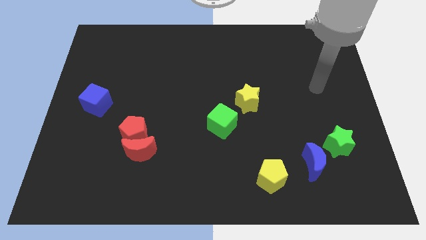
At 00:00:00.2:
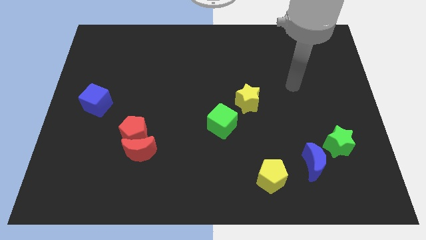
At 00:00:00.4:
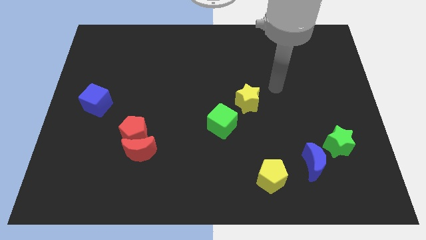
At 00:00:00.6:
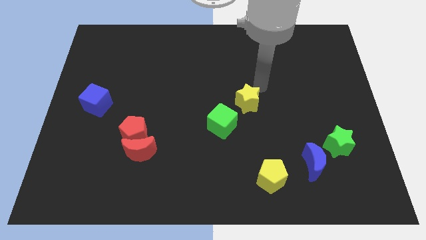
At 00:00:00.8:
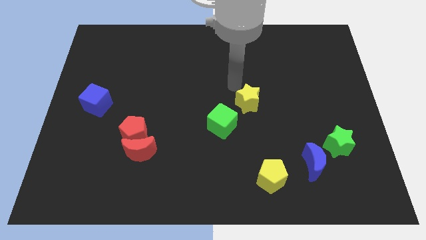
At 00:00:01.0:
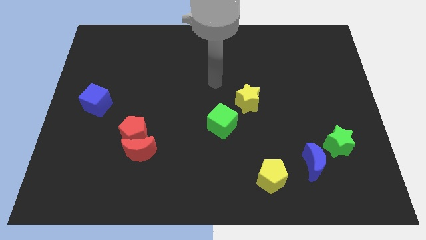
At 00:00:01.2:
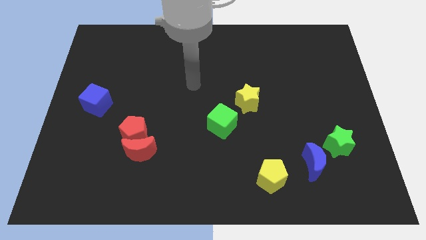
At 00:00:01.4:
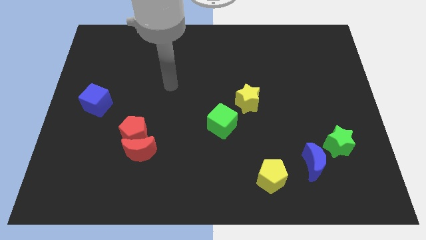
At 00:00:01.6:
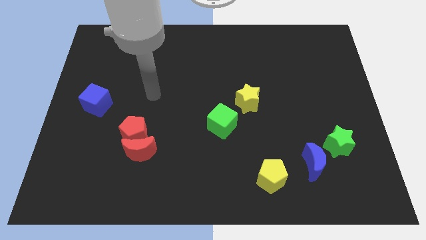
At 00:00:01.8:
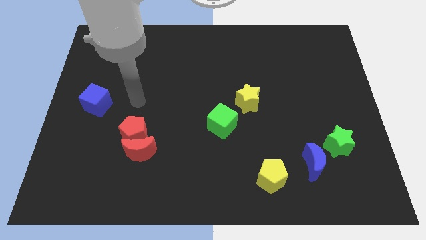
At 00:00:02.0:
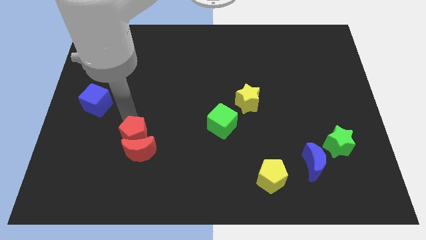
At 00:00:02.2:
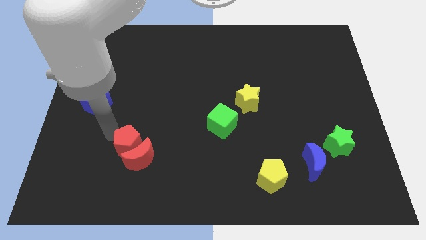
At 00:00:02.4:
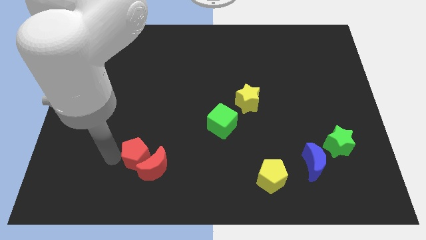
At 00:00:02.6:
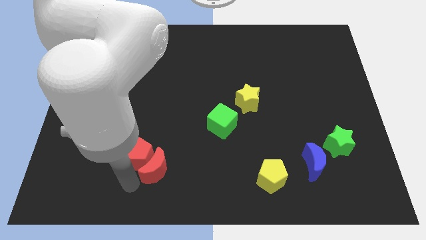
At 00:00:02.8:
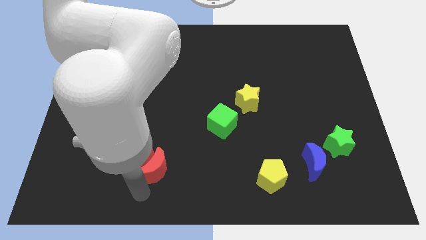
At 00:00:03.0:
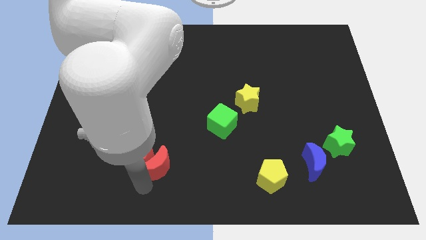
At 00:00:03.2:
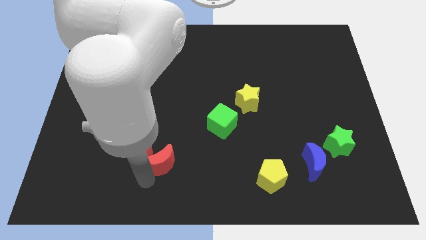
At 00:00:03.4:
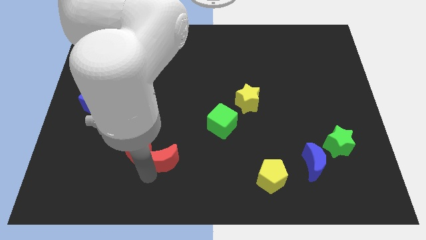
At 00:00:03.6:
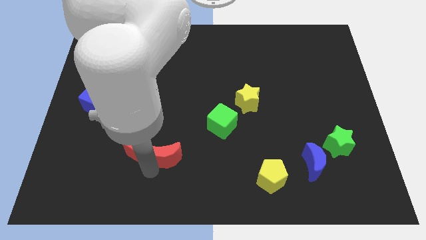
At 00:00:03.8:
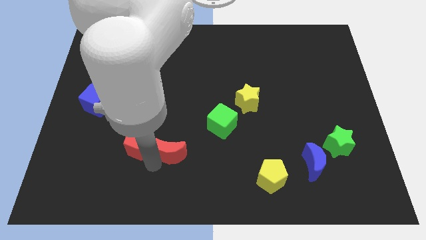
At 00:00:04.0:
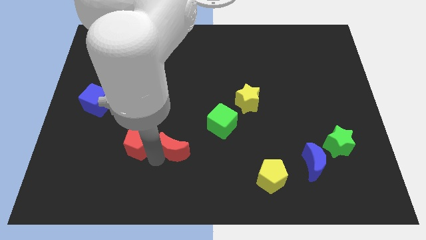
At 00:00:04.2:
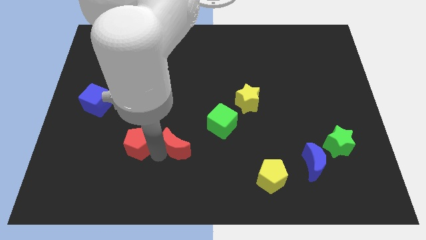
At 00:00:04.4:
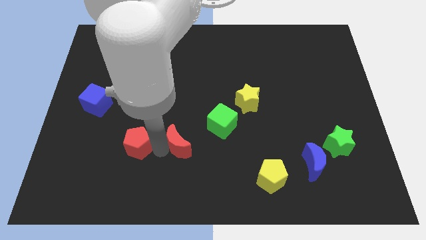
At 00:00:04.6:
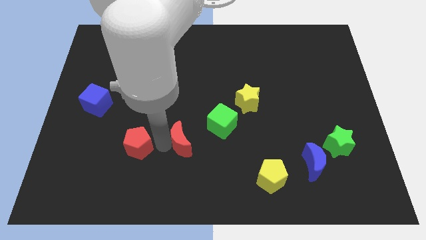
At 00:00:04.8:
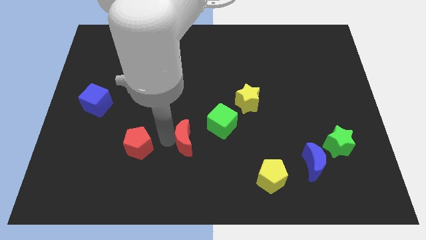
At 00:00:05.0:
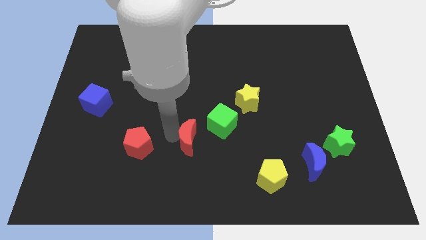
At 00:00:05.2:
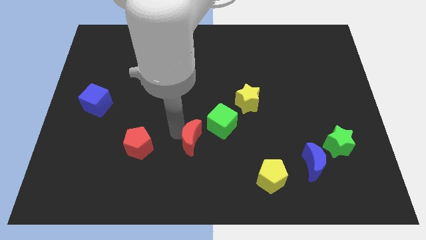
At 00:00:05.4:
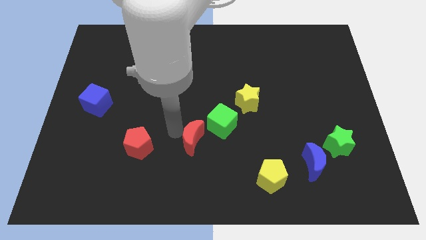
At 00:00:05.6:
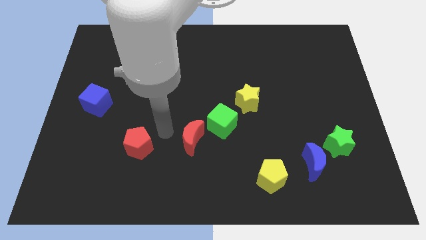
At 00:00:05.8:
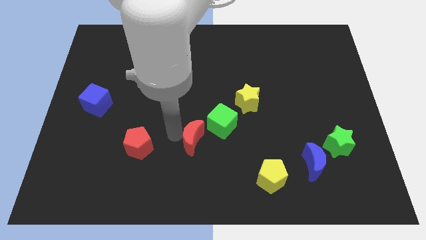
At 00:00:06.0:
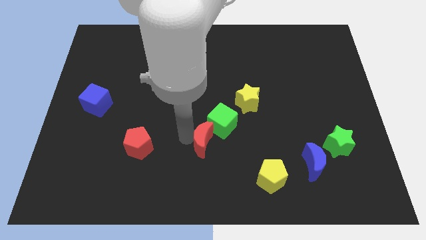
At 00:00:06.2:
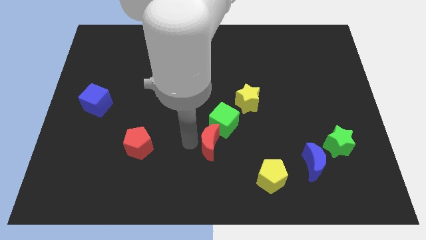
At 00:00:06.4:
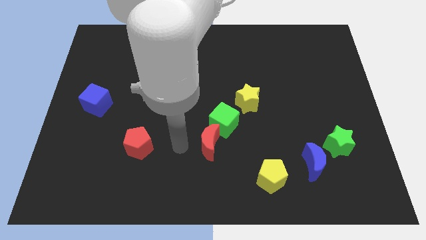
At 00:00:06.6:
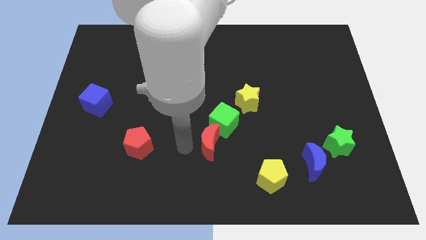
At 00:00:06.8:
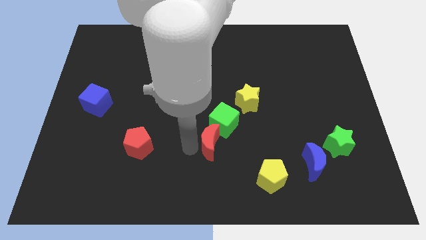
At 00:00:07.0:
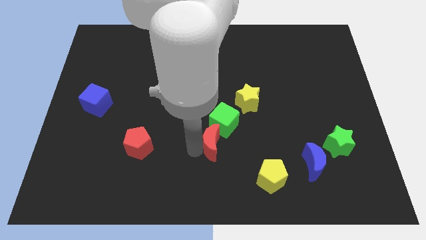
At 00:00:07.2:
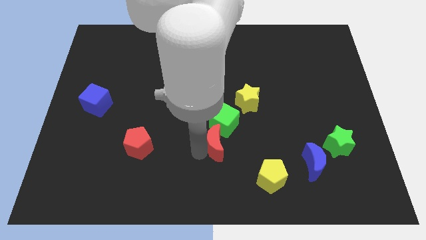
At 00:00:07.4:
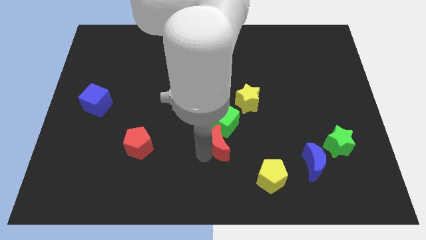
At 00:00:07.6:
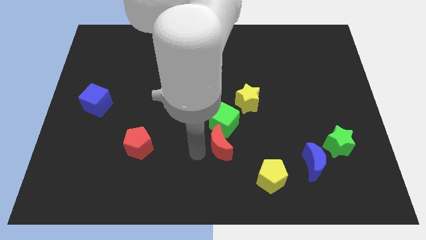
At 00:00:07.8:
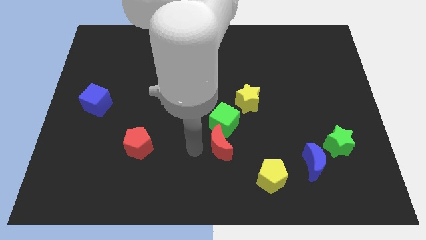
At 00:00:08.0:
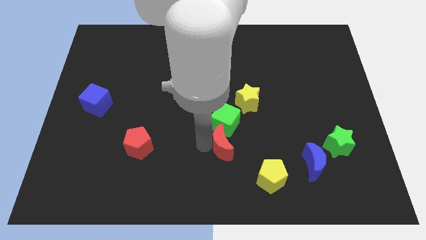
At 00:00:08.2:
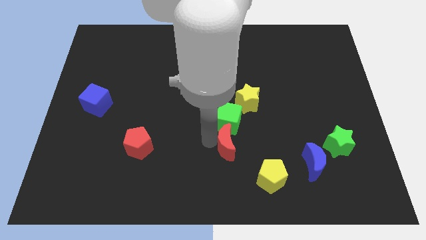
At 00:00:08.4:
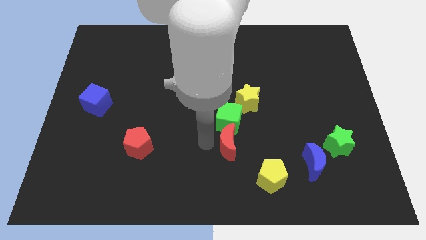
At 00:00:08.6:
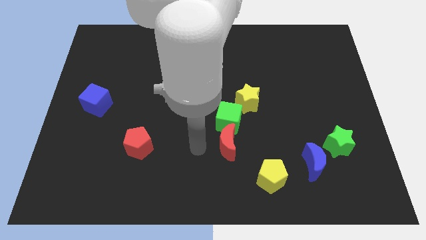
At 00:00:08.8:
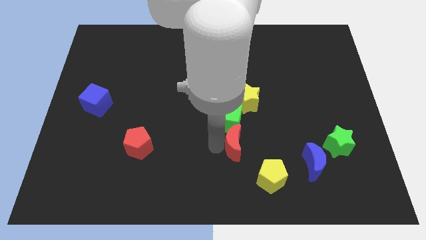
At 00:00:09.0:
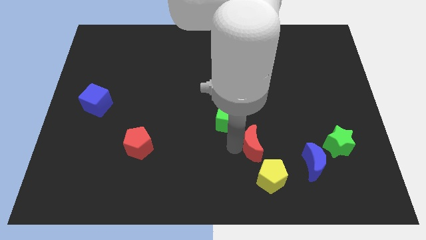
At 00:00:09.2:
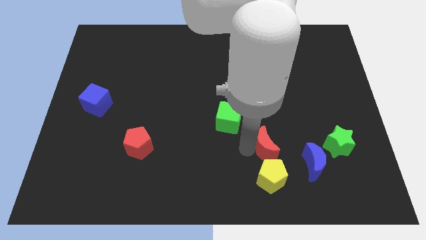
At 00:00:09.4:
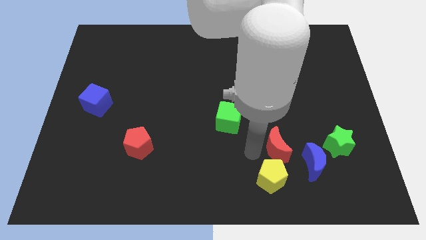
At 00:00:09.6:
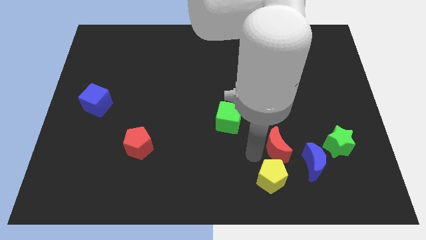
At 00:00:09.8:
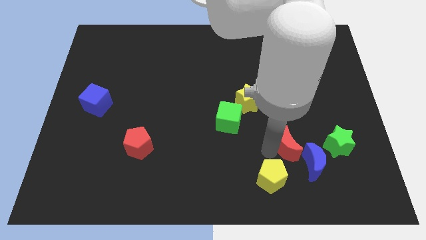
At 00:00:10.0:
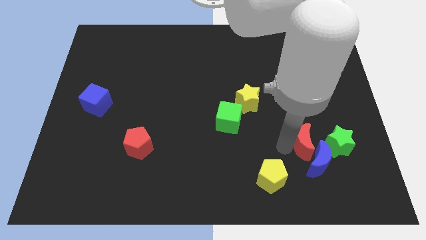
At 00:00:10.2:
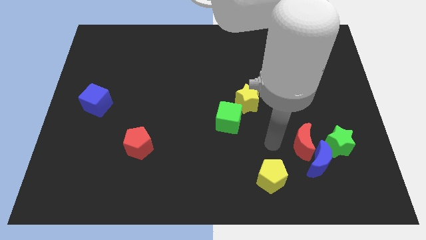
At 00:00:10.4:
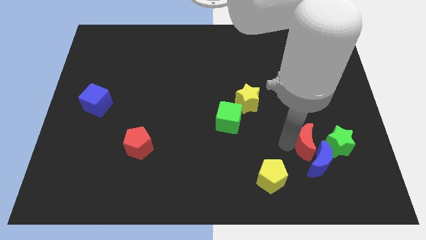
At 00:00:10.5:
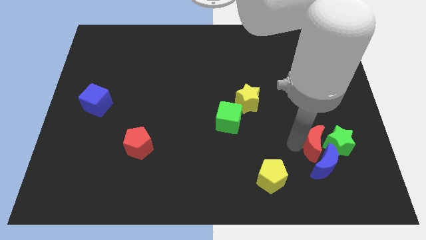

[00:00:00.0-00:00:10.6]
put the red moon next to the green star

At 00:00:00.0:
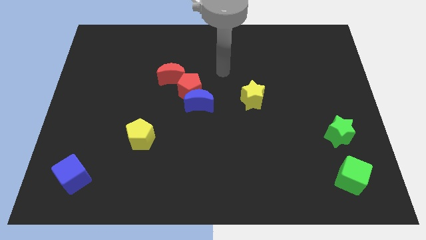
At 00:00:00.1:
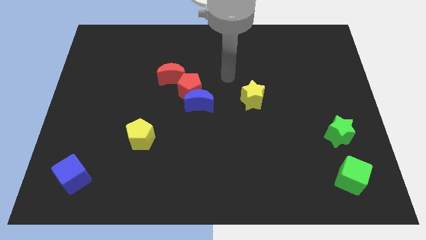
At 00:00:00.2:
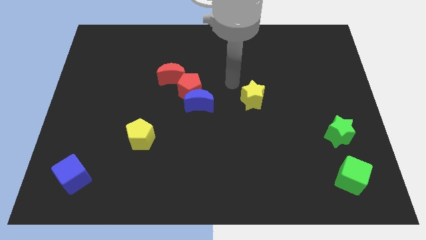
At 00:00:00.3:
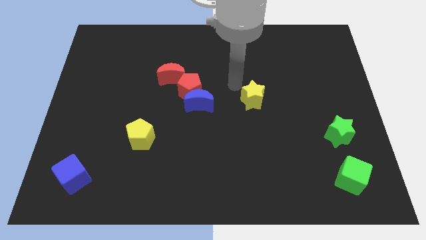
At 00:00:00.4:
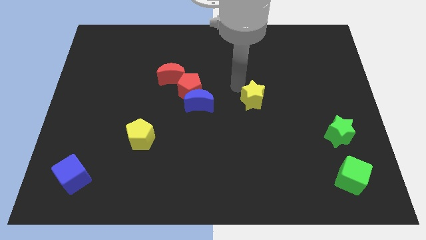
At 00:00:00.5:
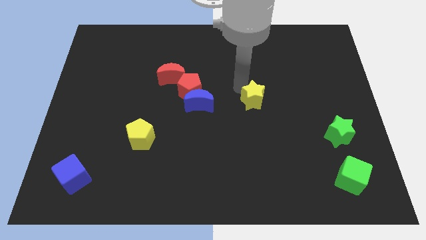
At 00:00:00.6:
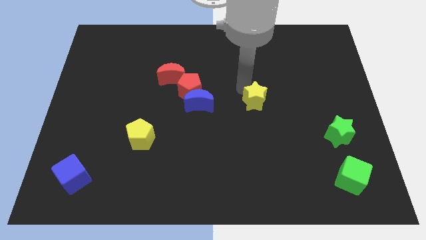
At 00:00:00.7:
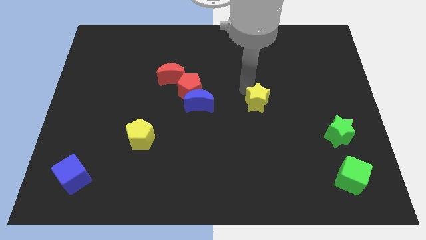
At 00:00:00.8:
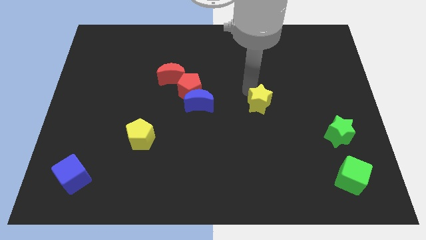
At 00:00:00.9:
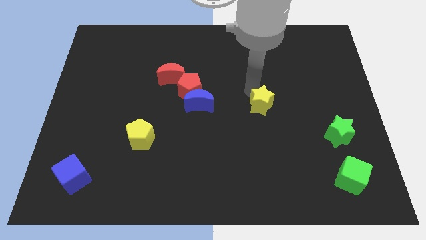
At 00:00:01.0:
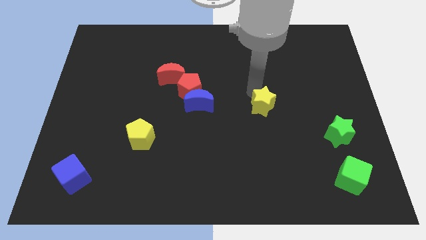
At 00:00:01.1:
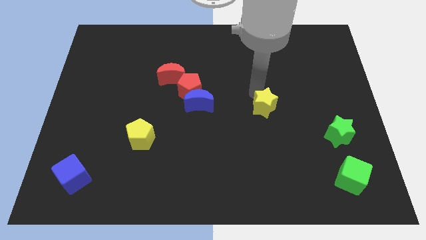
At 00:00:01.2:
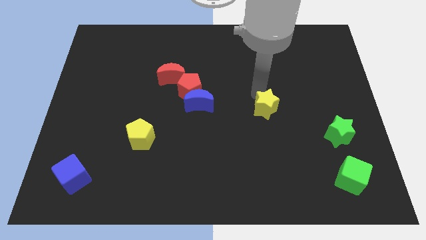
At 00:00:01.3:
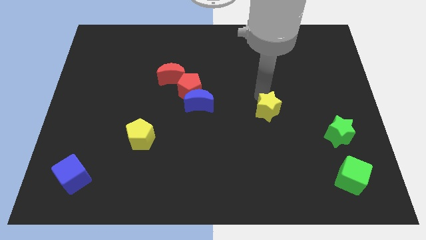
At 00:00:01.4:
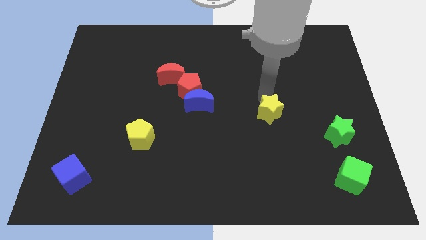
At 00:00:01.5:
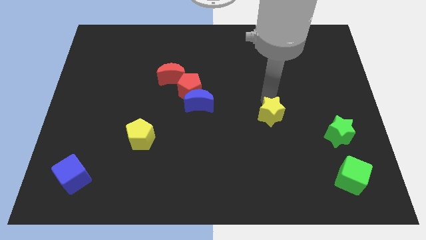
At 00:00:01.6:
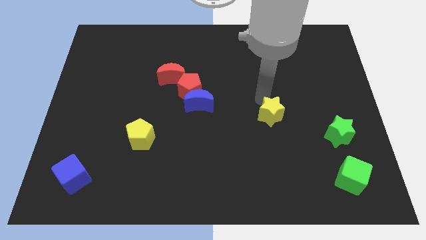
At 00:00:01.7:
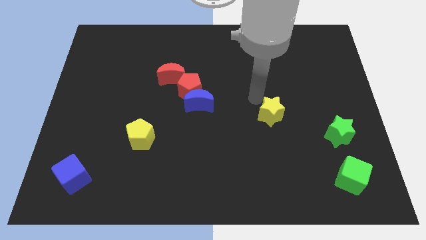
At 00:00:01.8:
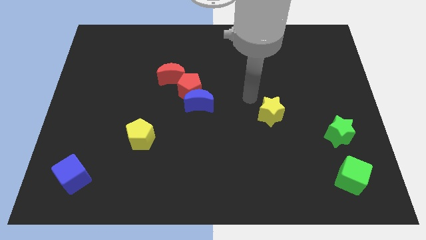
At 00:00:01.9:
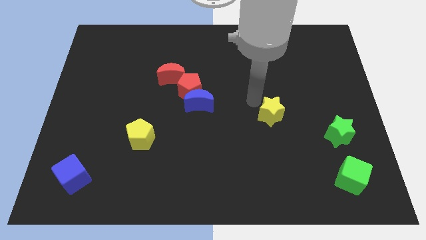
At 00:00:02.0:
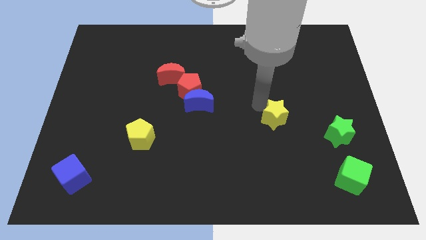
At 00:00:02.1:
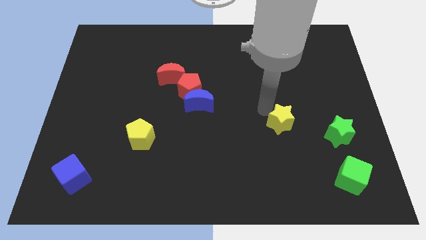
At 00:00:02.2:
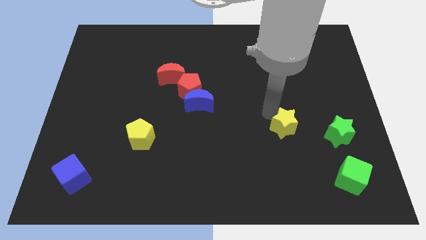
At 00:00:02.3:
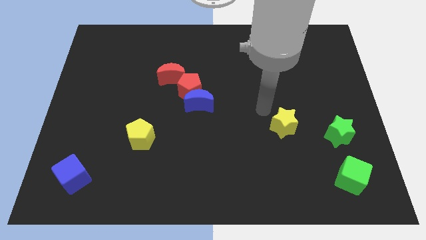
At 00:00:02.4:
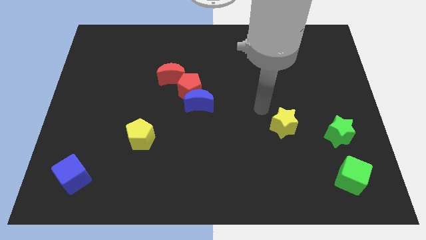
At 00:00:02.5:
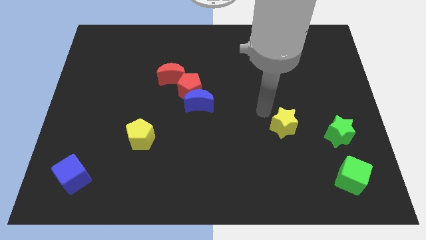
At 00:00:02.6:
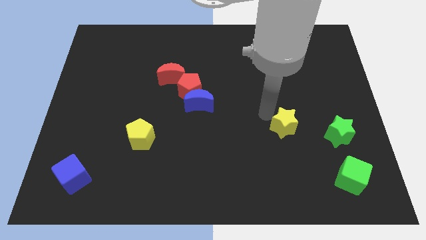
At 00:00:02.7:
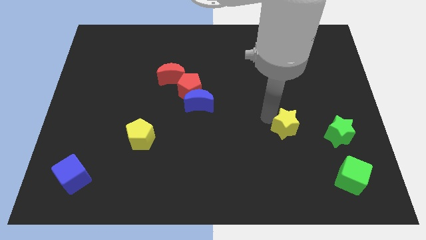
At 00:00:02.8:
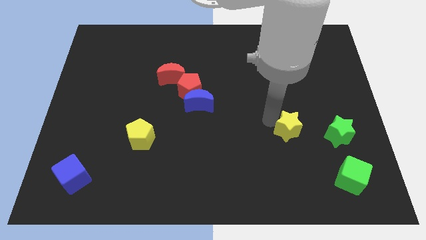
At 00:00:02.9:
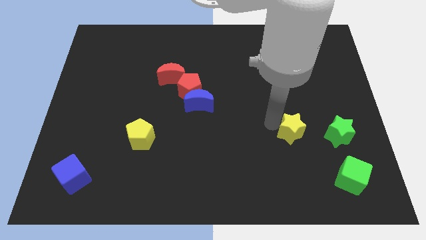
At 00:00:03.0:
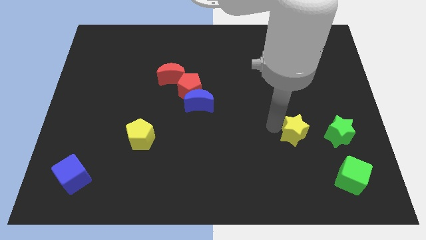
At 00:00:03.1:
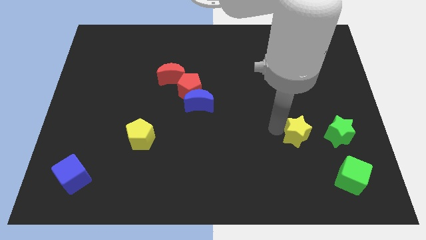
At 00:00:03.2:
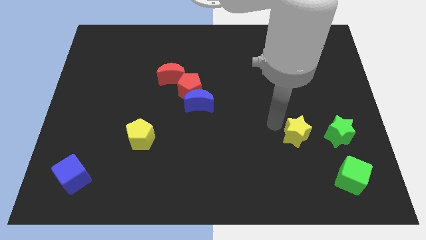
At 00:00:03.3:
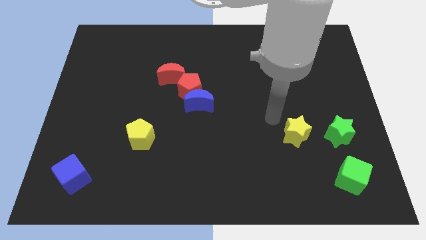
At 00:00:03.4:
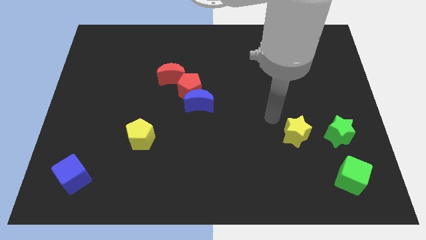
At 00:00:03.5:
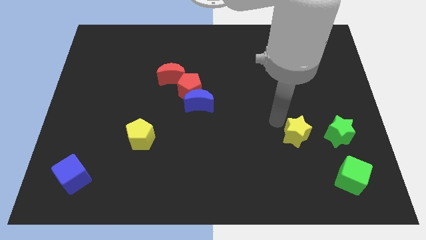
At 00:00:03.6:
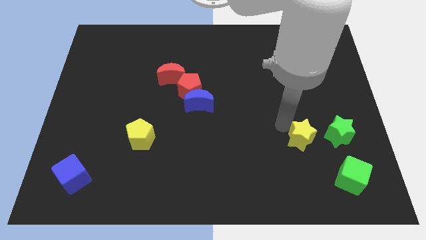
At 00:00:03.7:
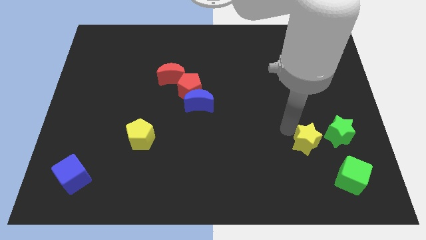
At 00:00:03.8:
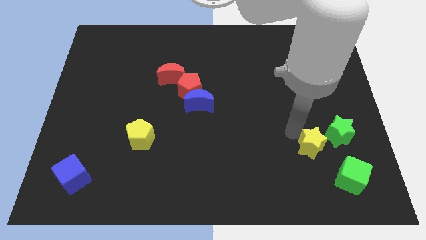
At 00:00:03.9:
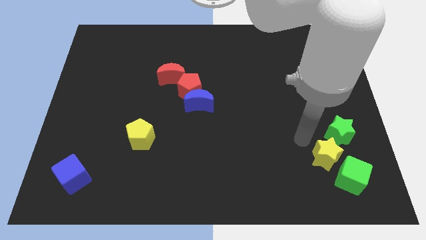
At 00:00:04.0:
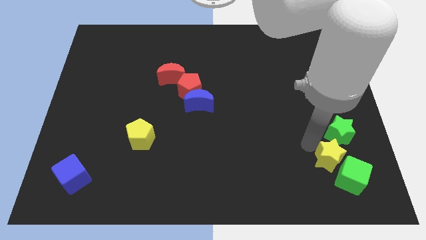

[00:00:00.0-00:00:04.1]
slide the yellow star to the green cube
